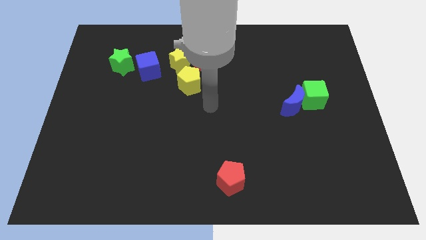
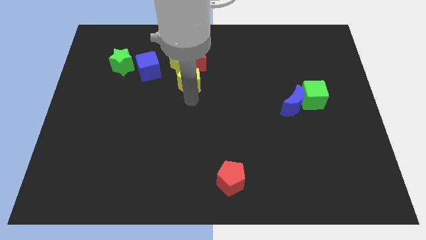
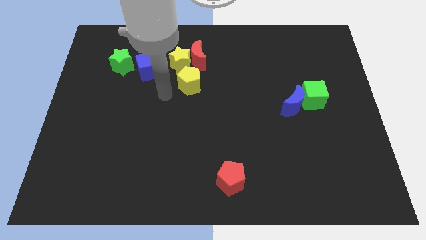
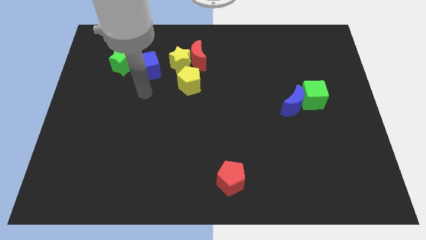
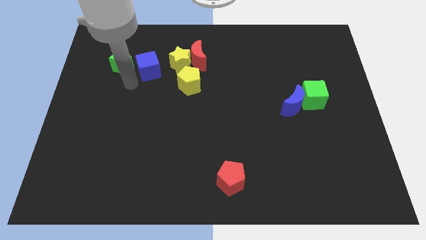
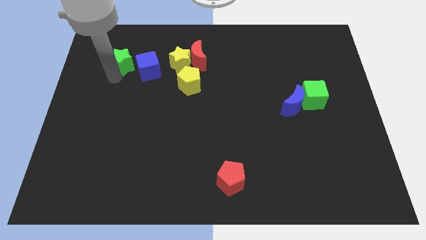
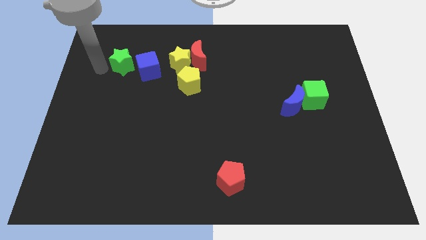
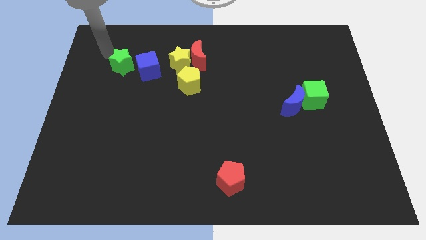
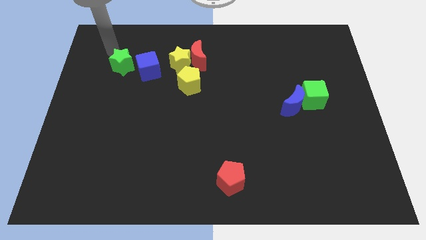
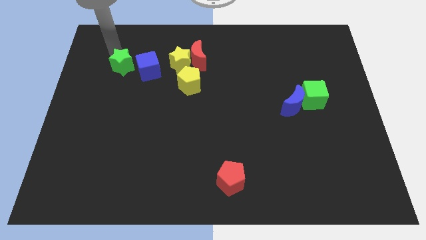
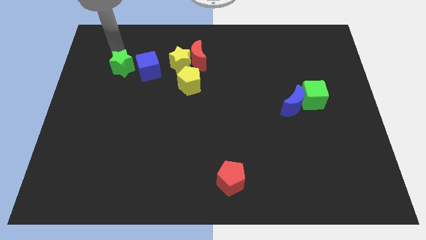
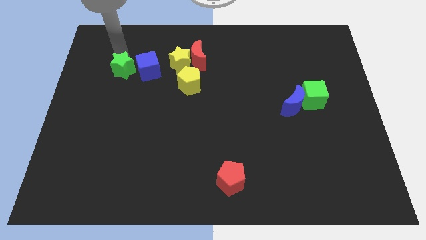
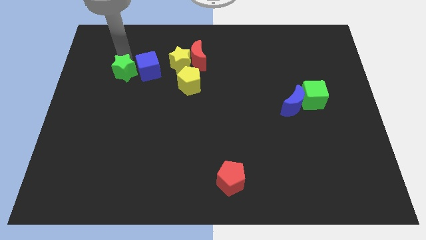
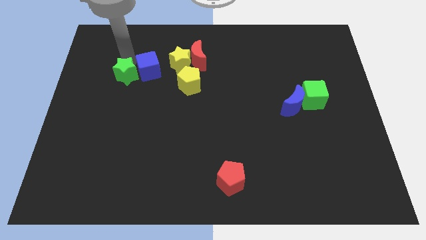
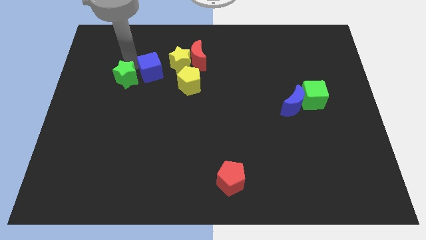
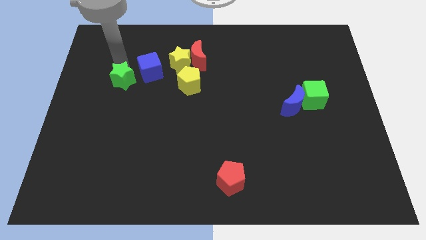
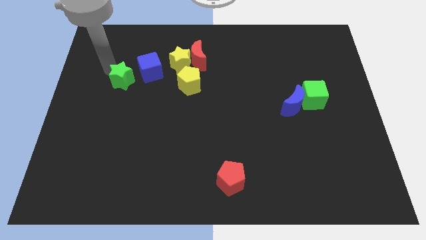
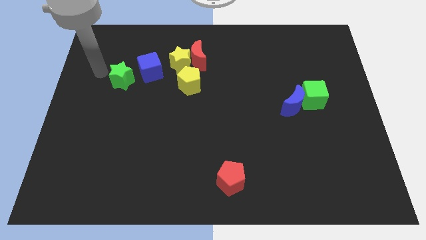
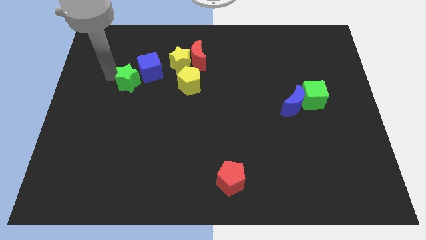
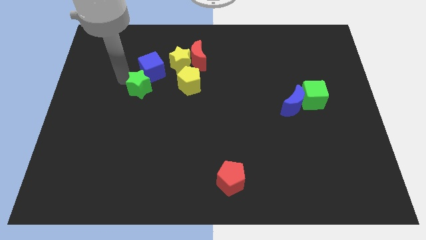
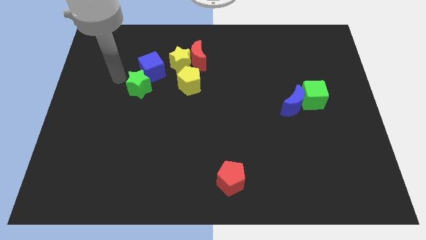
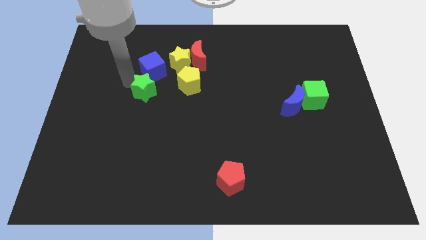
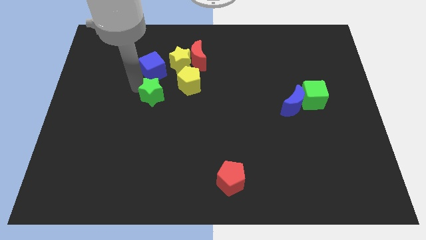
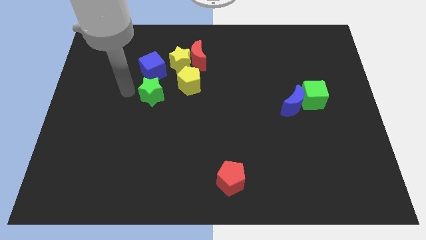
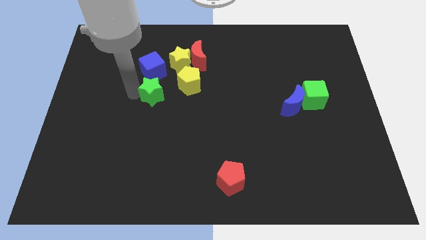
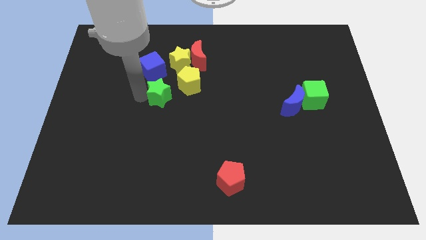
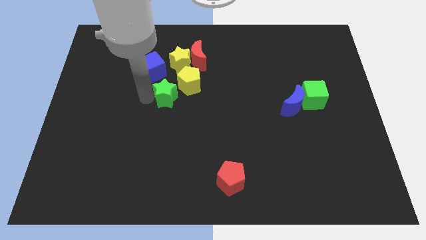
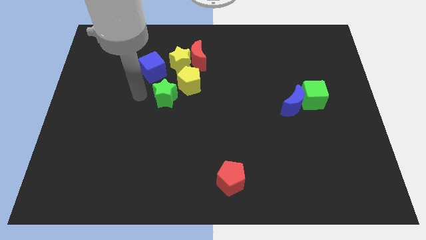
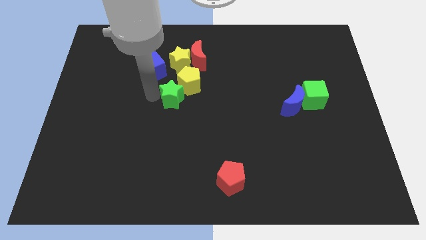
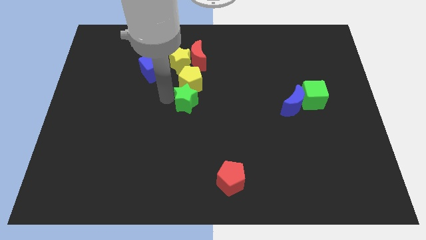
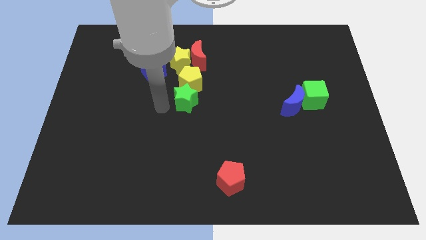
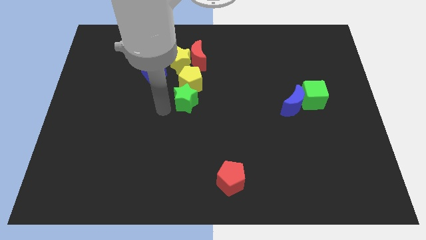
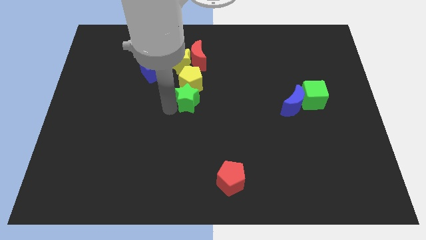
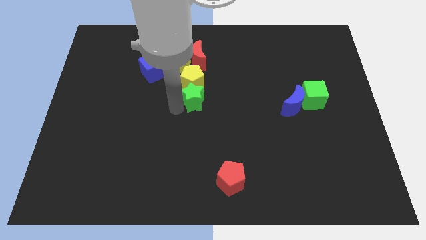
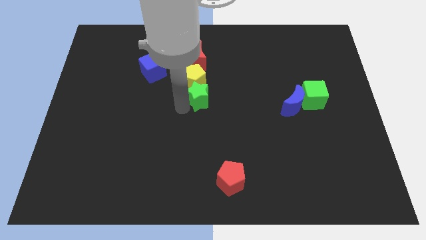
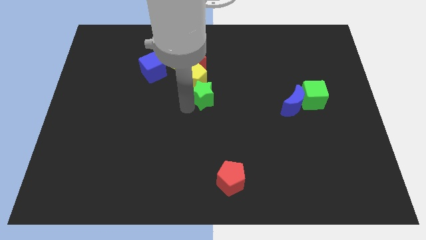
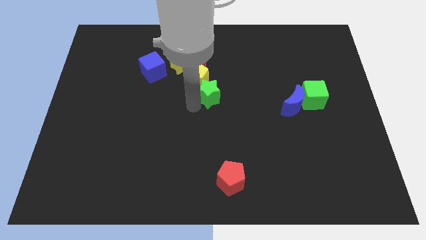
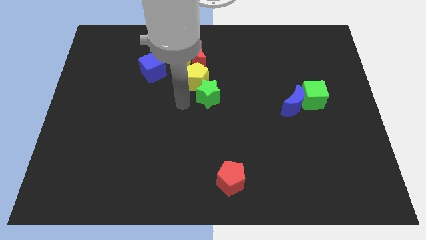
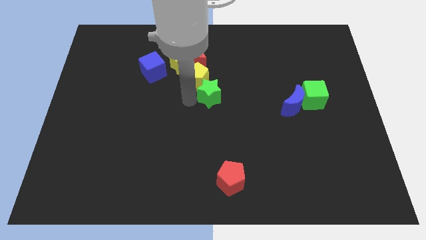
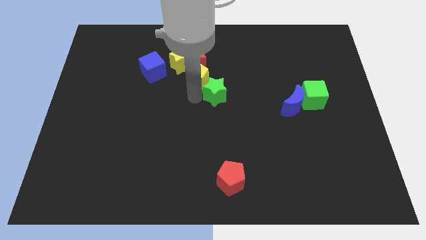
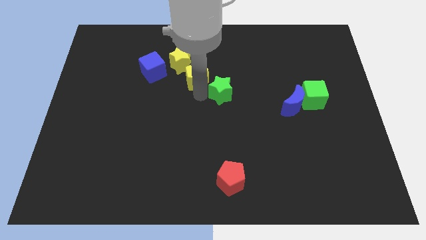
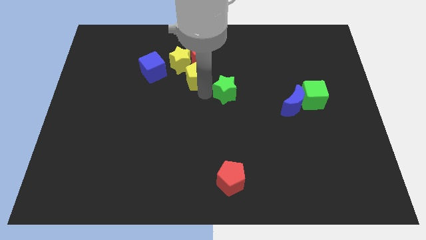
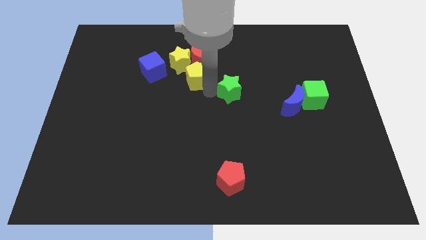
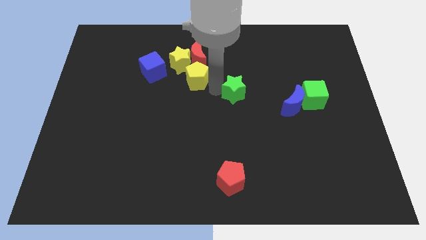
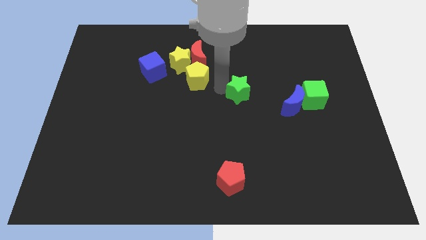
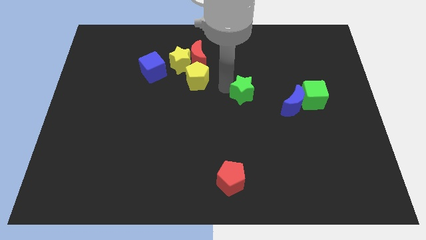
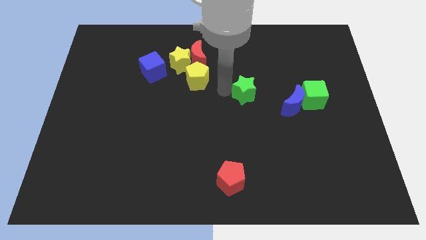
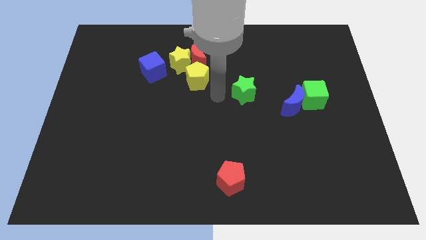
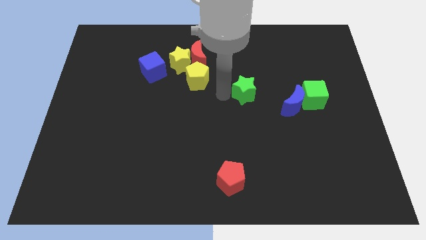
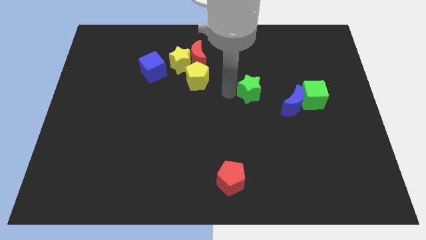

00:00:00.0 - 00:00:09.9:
put the green star to the top left side of the blue moon

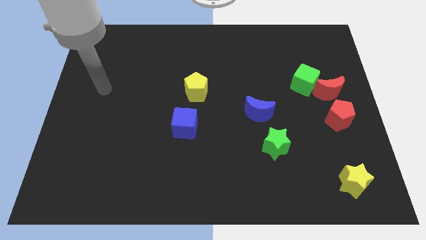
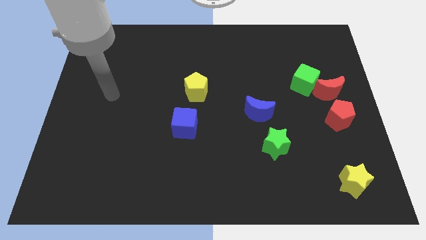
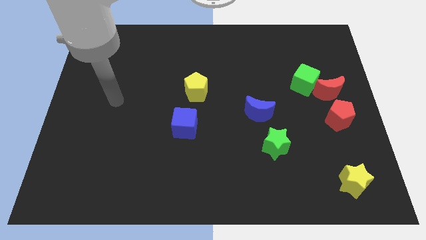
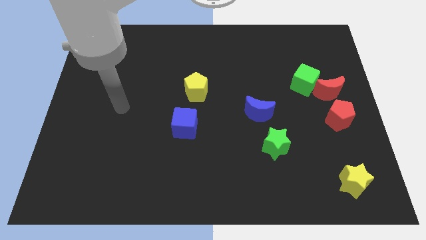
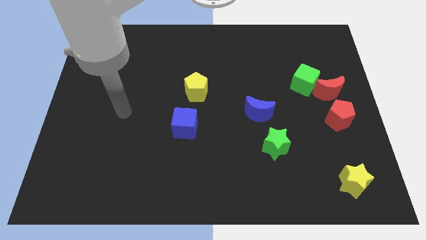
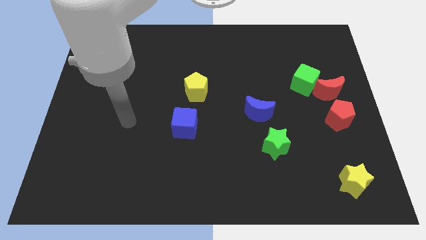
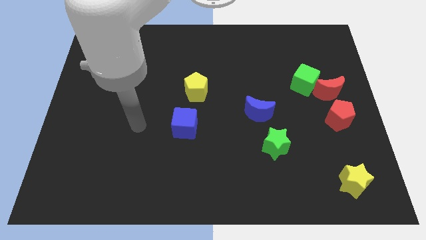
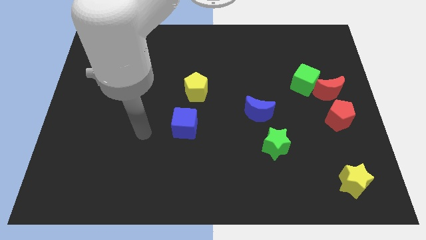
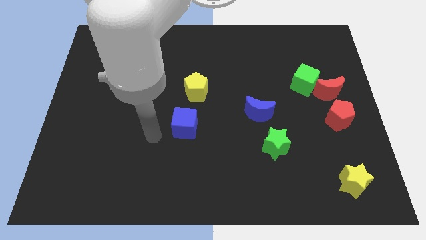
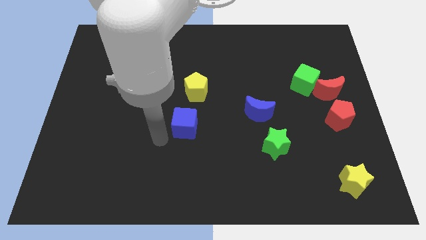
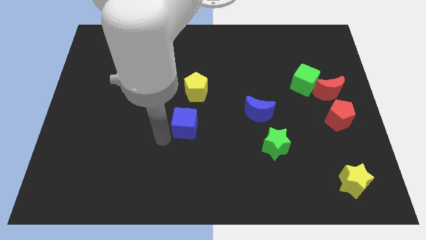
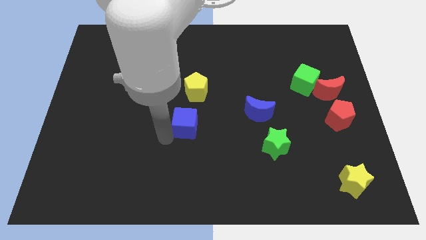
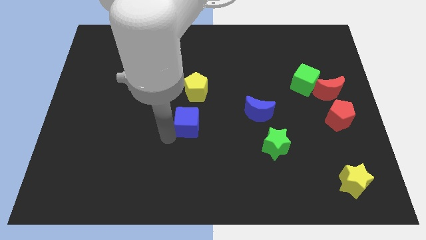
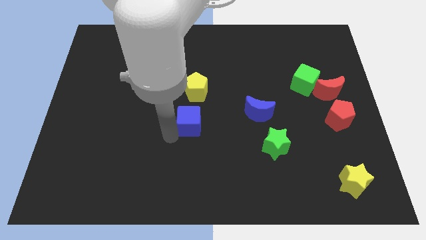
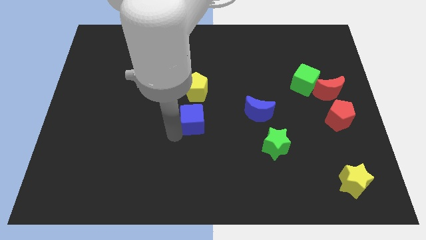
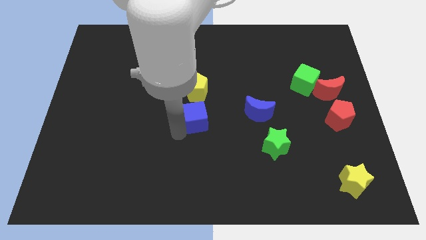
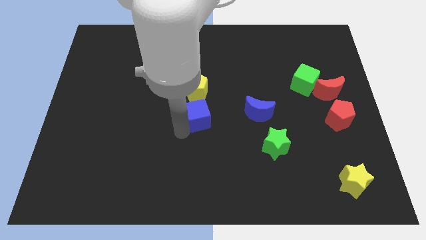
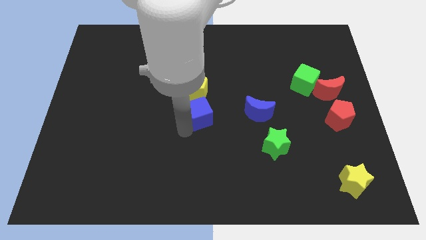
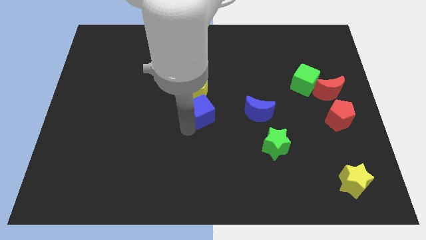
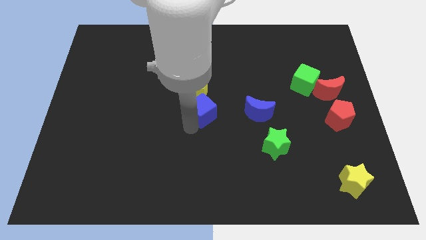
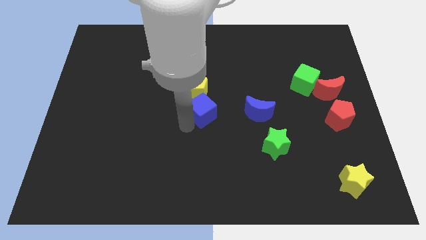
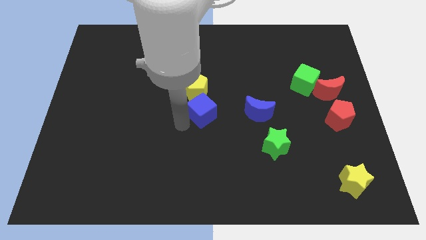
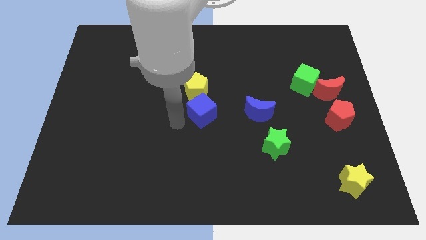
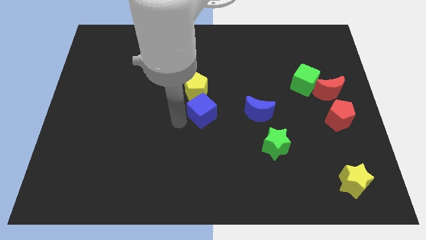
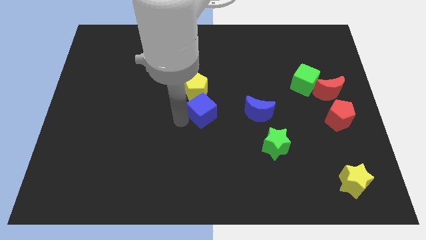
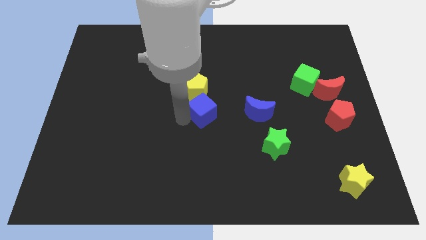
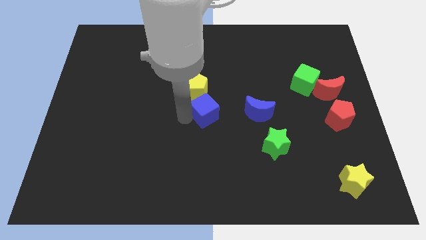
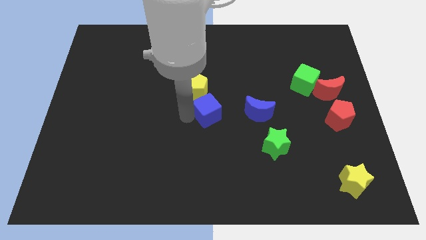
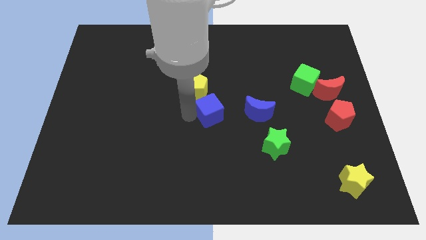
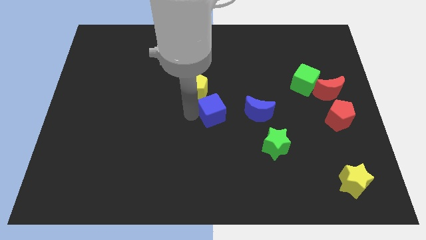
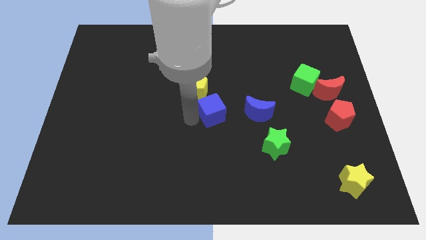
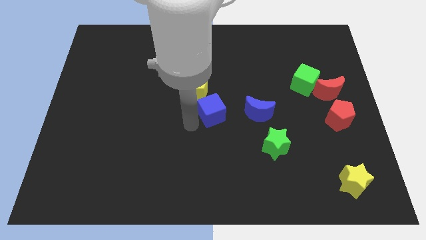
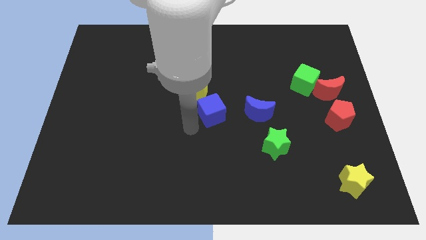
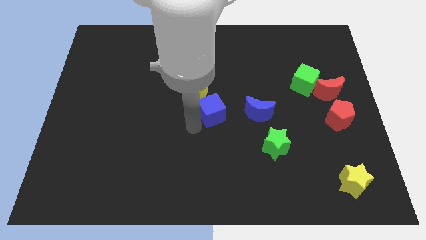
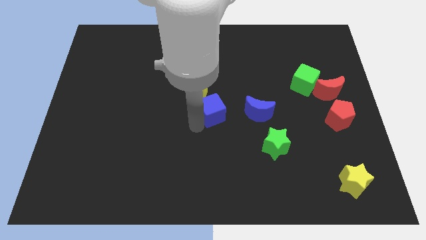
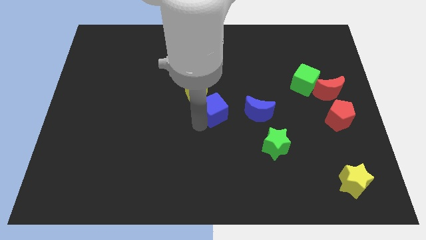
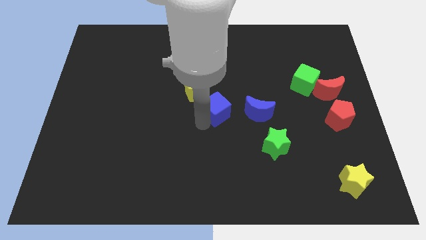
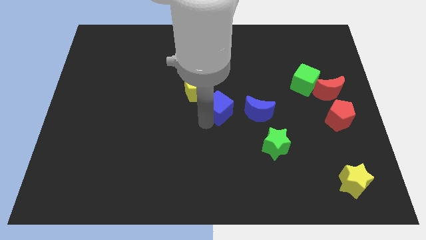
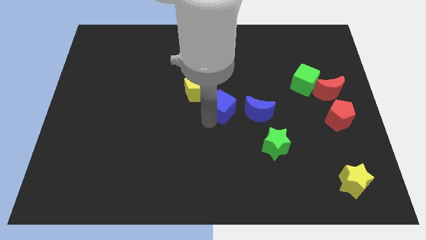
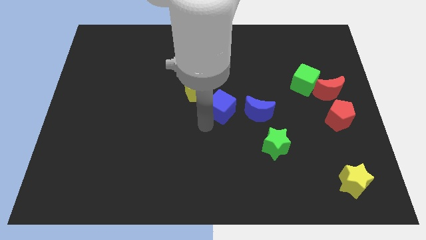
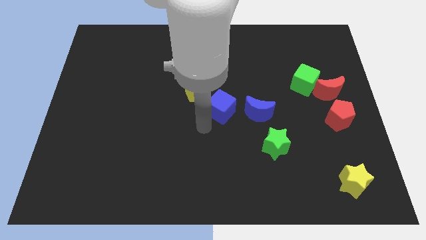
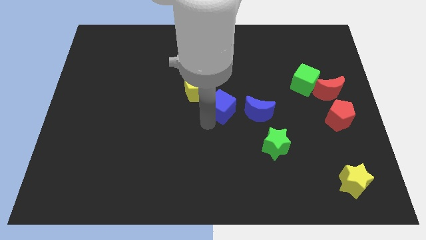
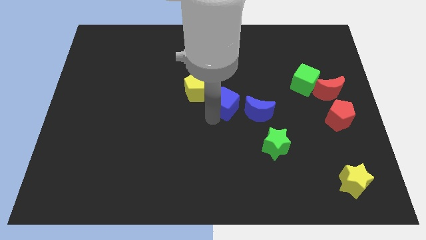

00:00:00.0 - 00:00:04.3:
move the blue cube diagonally up and to the left of the blue moon
